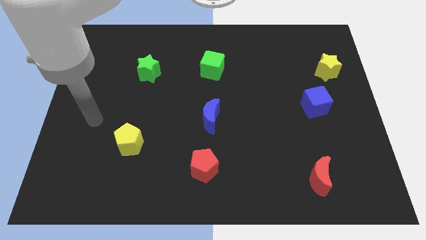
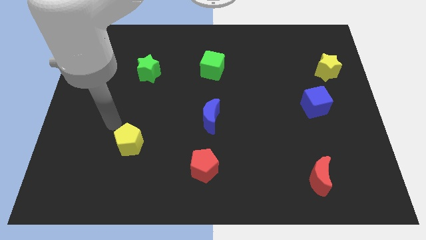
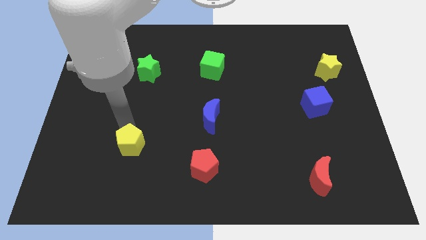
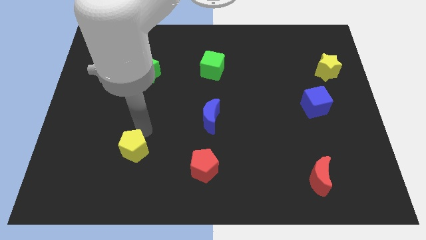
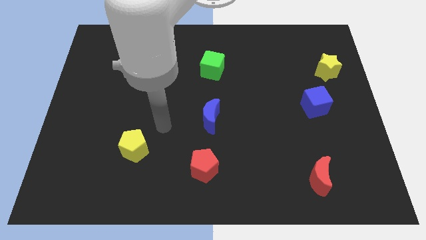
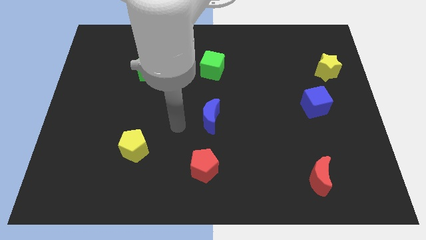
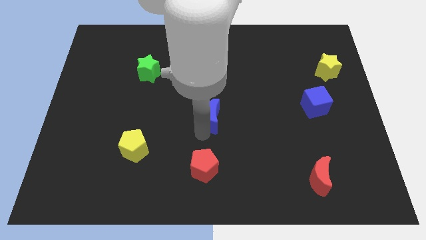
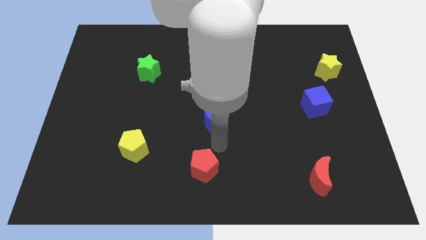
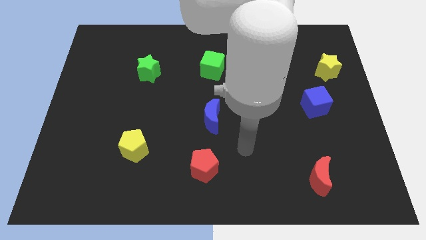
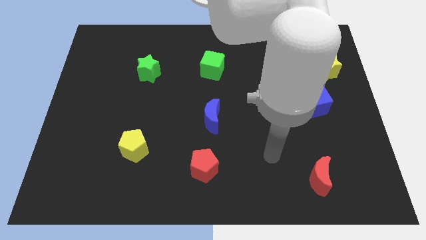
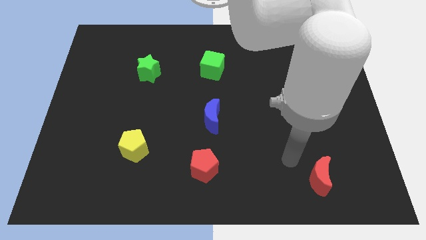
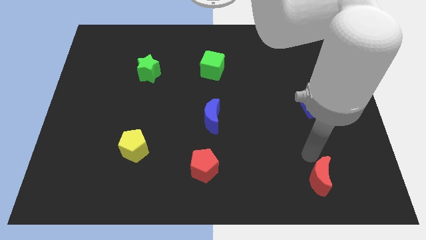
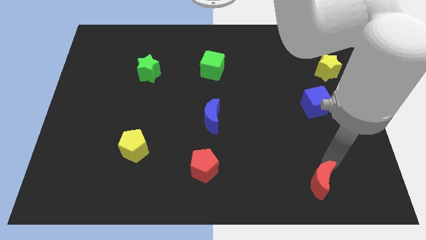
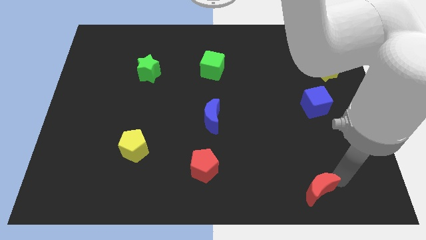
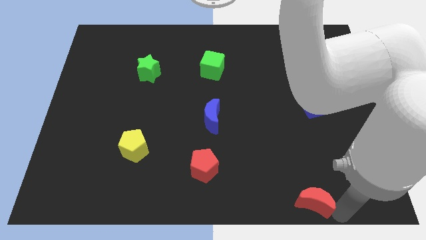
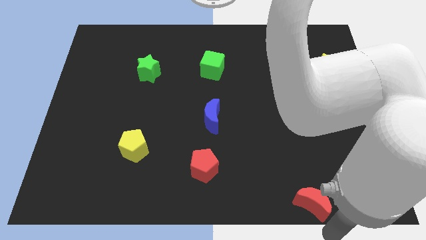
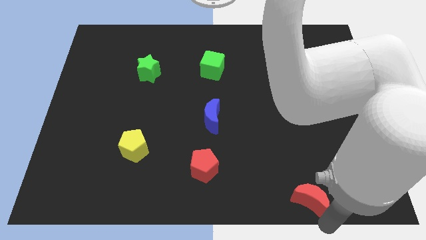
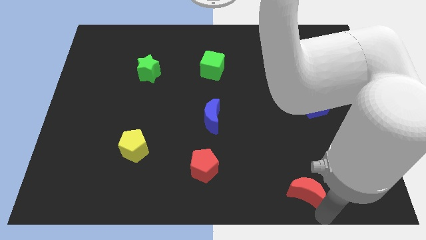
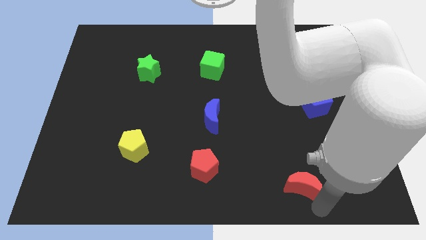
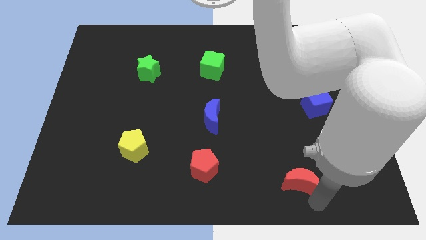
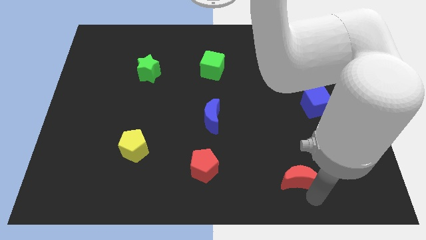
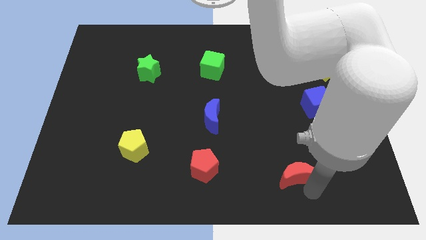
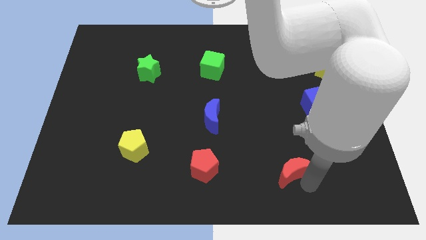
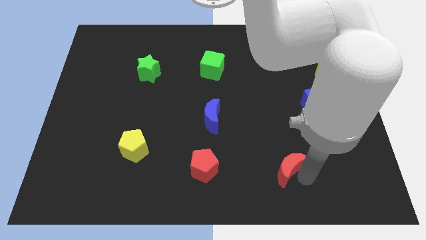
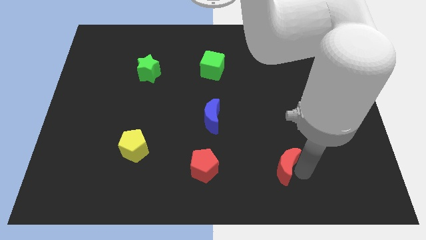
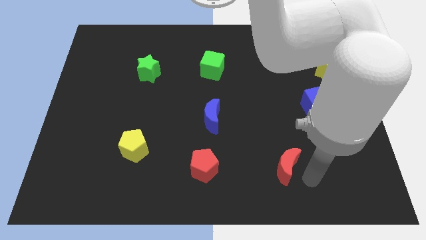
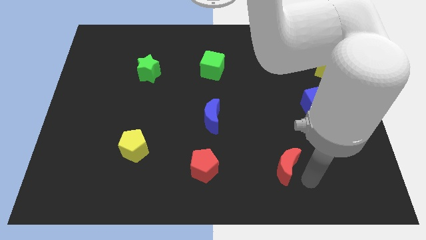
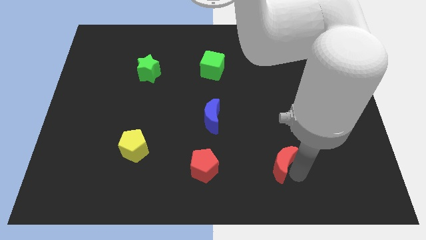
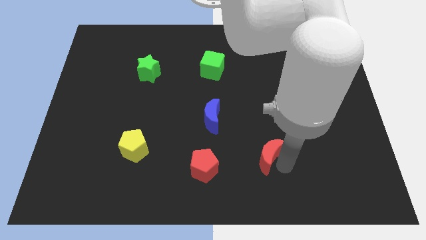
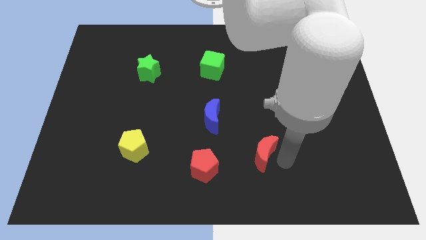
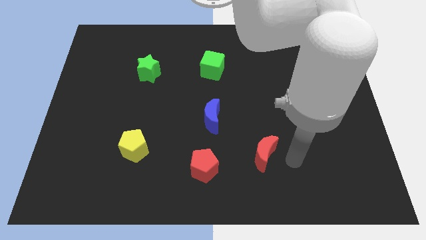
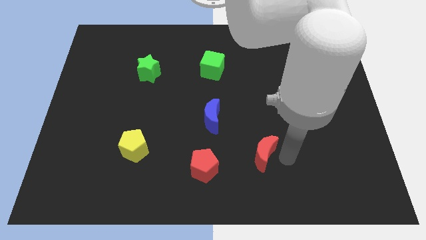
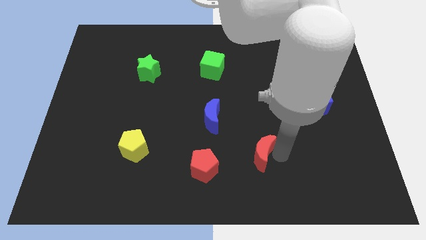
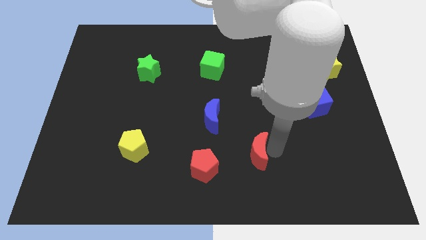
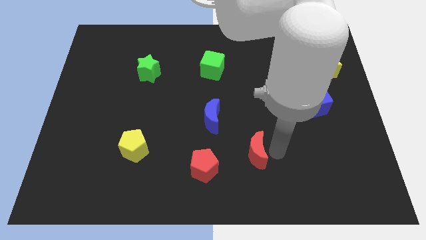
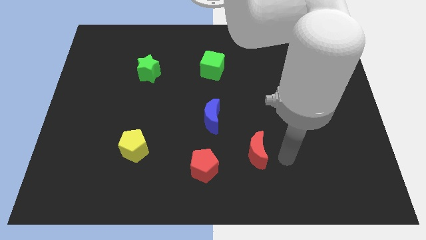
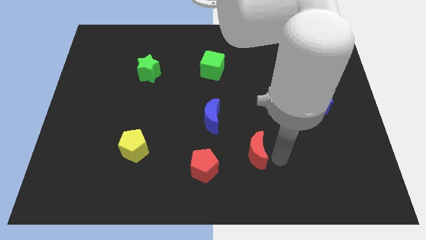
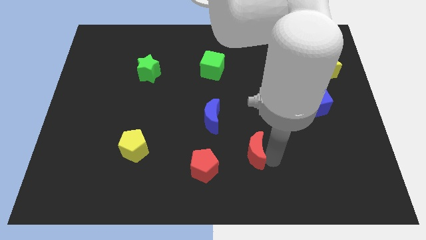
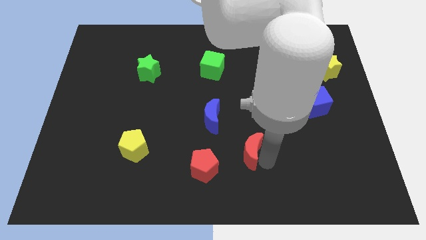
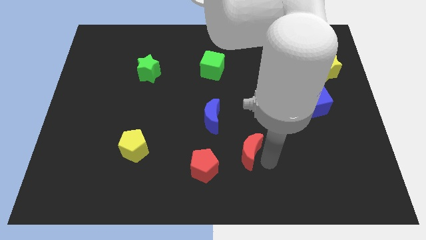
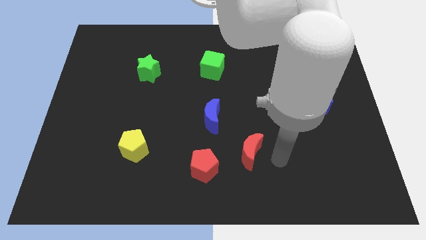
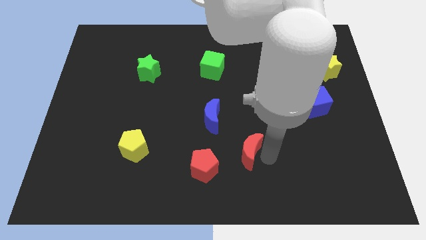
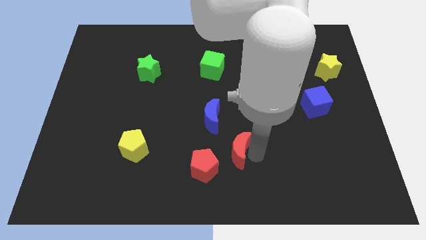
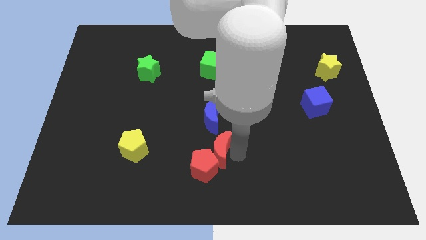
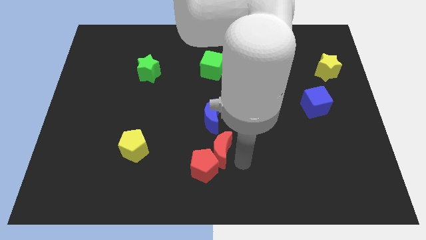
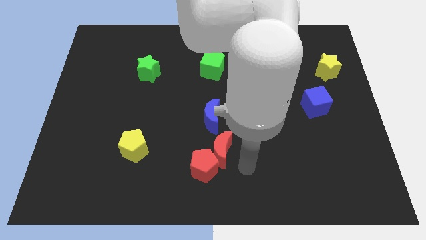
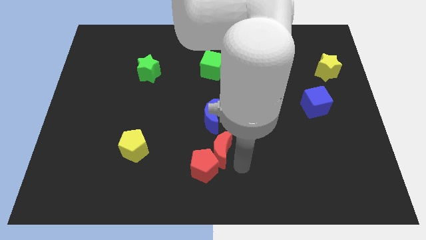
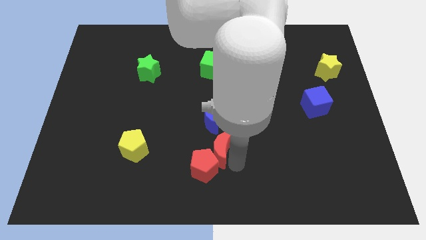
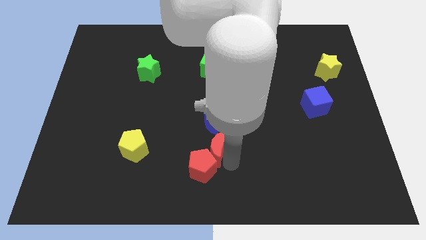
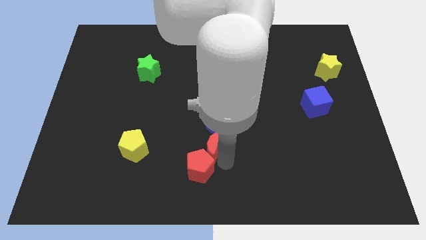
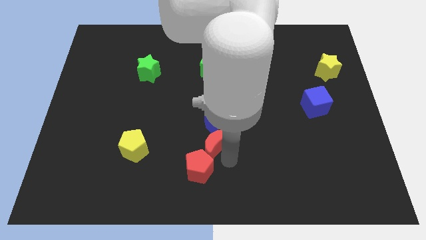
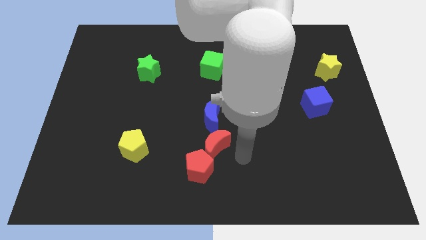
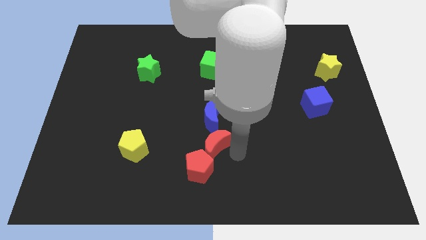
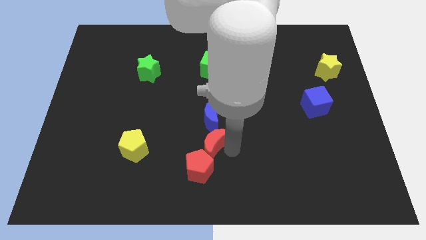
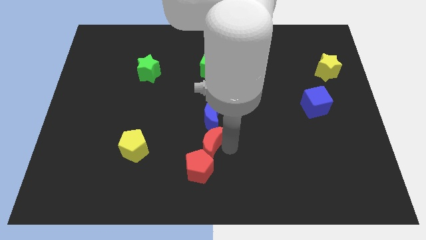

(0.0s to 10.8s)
push the red moon to the bottom left of the blue moon

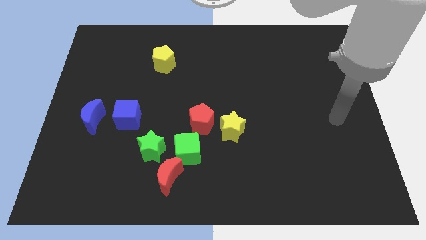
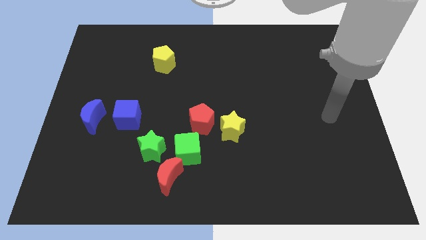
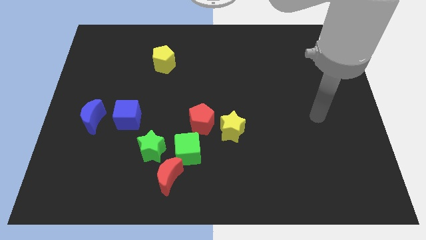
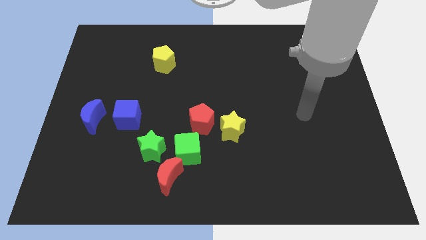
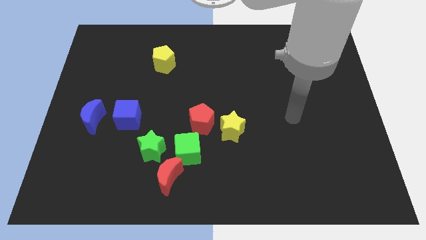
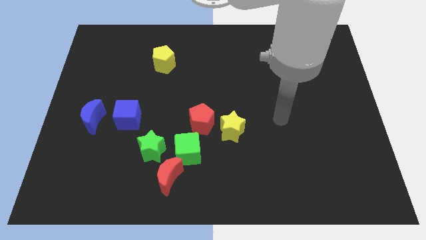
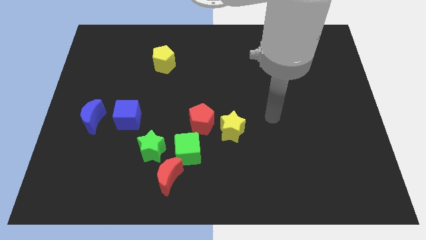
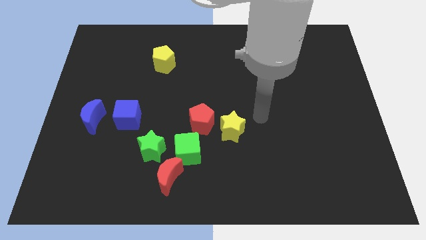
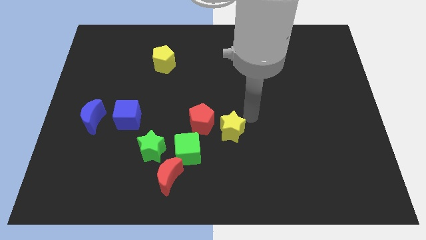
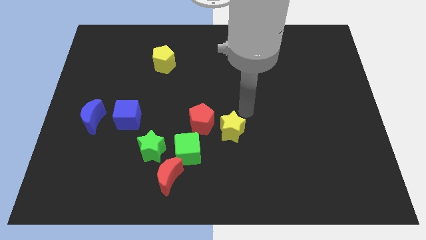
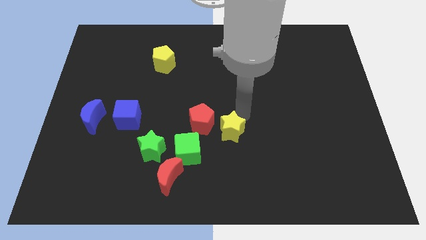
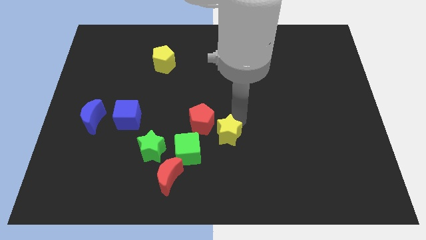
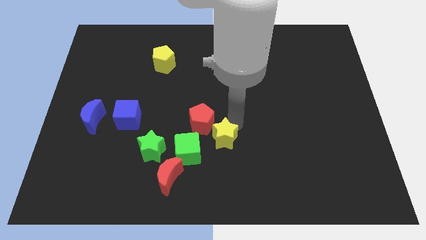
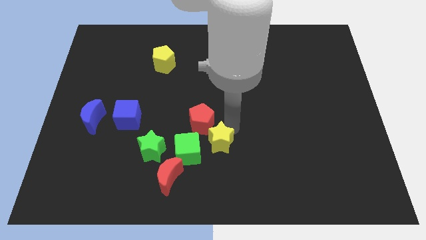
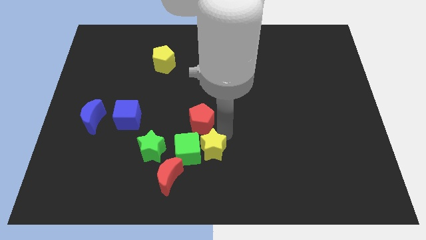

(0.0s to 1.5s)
move the yellow star to the bottom right side of the green cube
